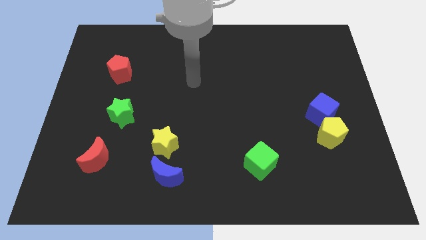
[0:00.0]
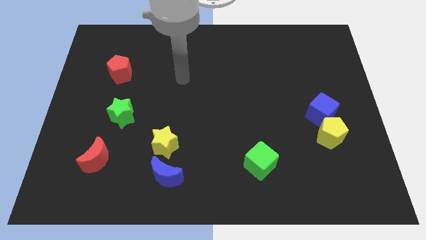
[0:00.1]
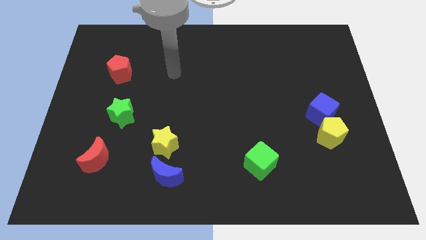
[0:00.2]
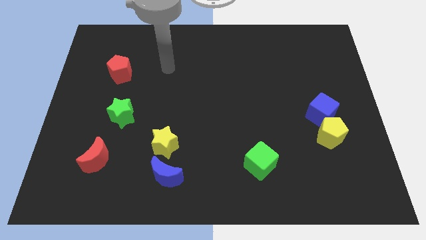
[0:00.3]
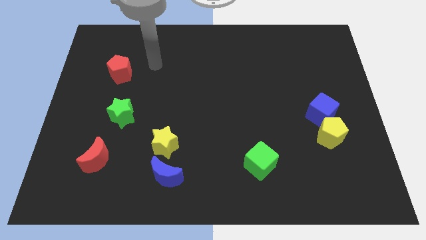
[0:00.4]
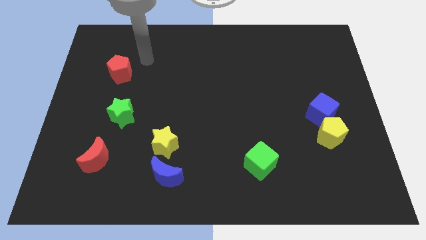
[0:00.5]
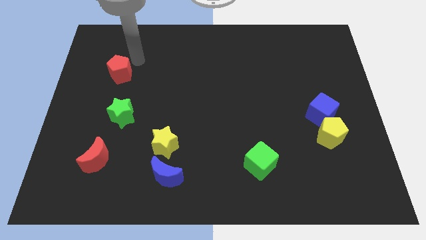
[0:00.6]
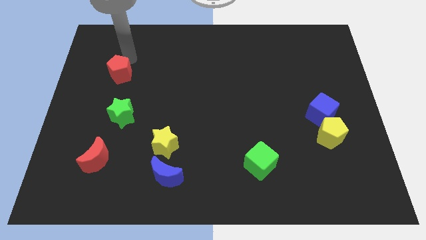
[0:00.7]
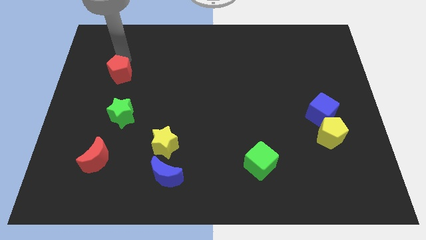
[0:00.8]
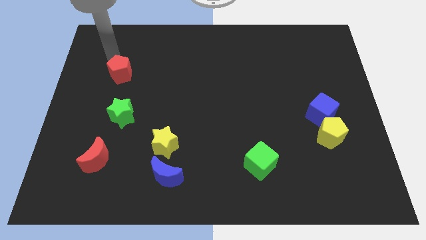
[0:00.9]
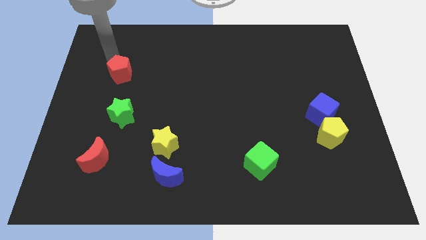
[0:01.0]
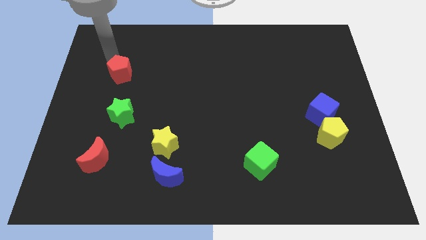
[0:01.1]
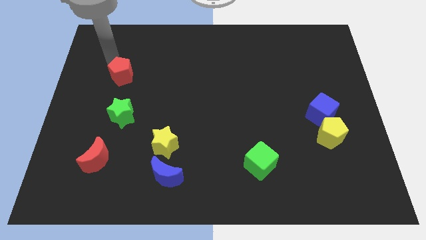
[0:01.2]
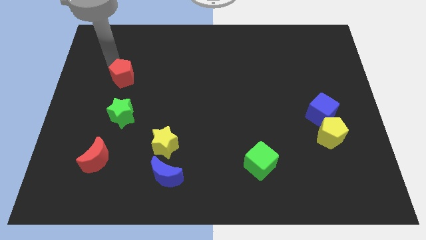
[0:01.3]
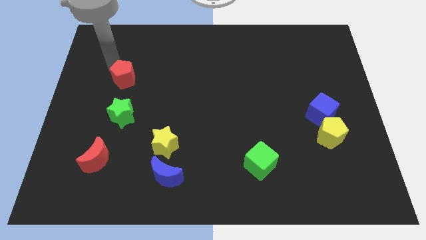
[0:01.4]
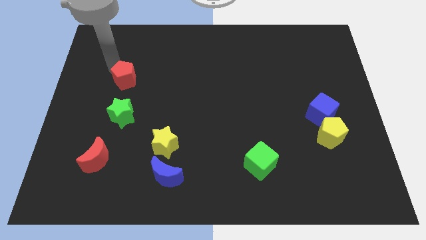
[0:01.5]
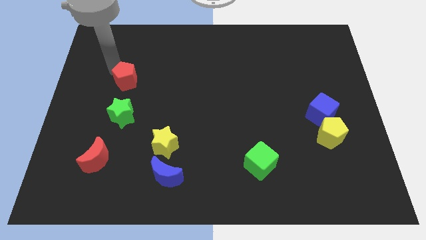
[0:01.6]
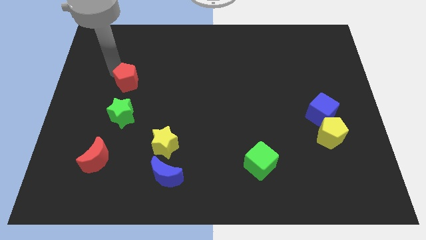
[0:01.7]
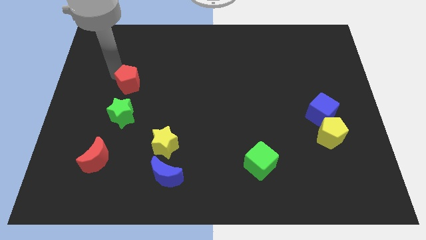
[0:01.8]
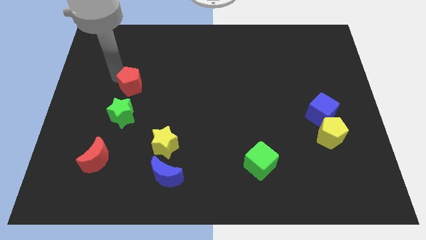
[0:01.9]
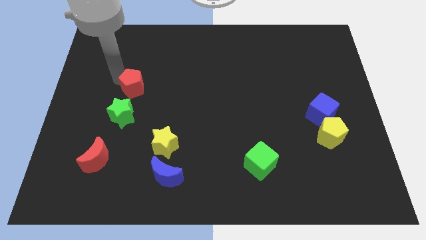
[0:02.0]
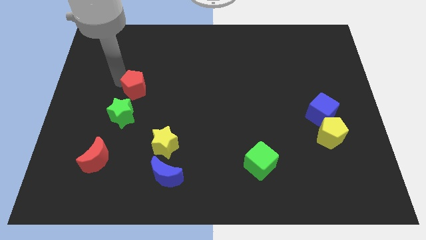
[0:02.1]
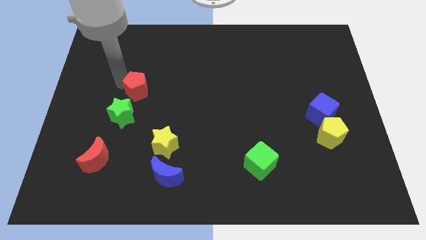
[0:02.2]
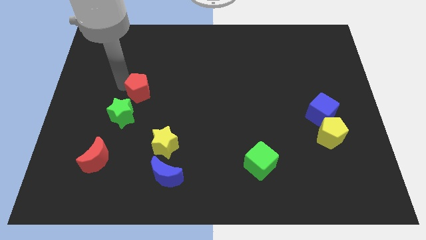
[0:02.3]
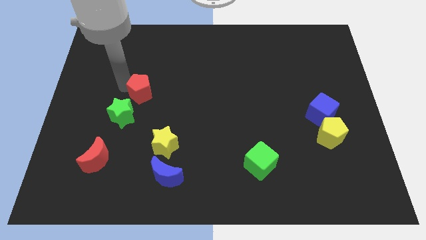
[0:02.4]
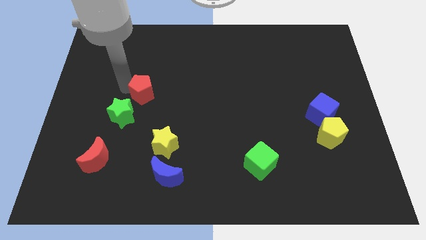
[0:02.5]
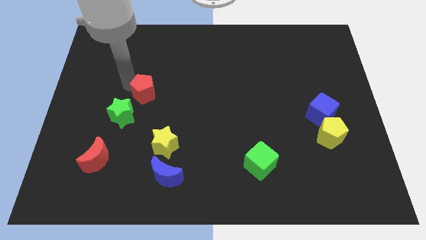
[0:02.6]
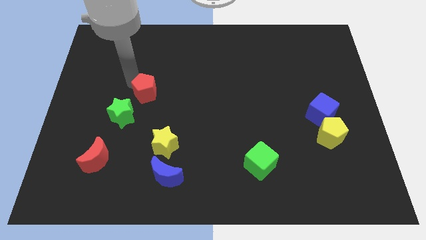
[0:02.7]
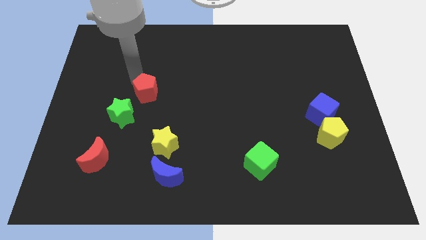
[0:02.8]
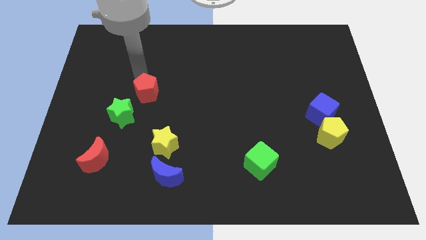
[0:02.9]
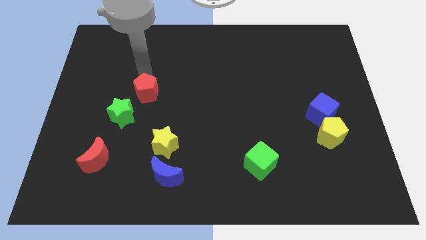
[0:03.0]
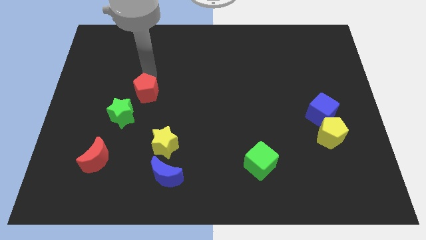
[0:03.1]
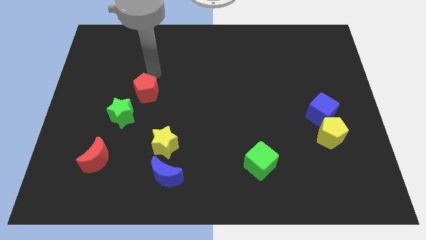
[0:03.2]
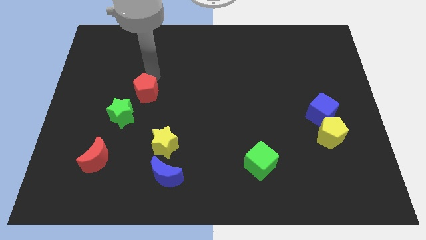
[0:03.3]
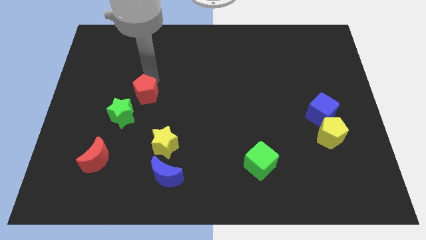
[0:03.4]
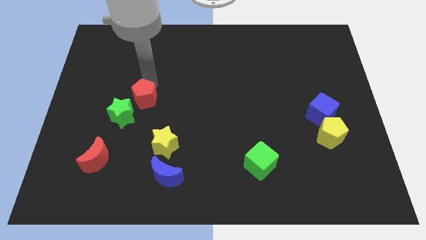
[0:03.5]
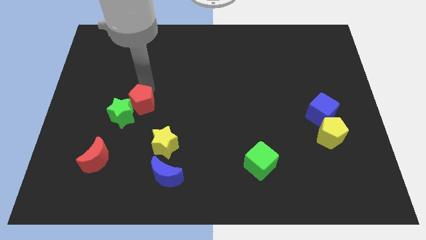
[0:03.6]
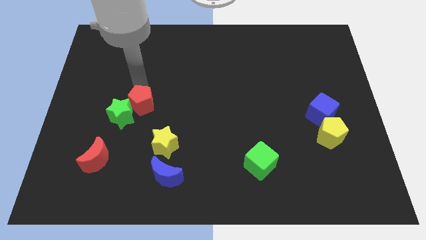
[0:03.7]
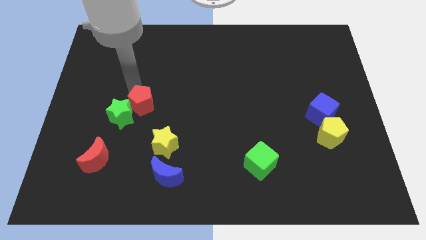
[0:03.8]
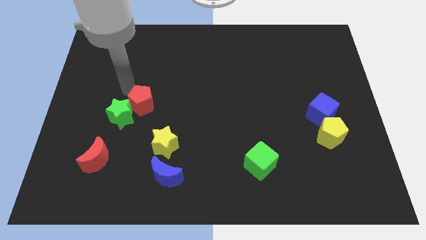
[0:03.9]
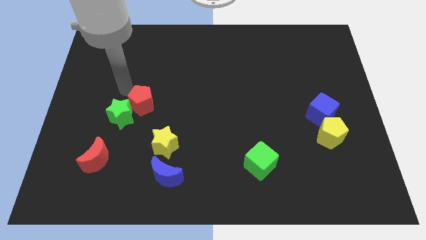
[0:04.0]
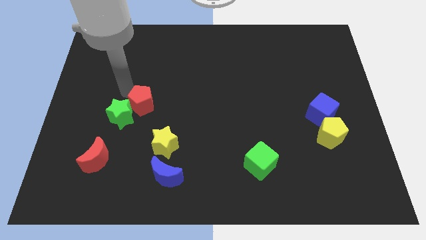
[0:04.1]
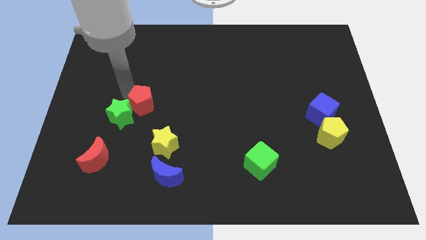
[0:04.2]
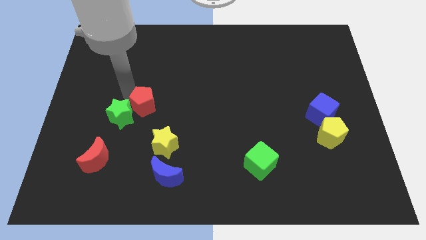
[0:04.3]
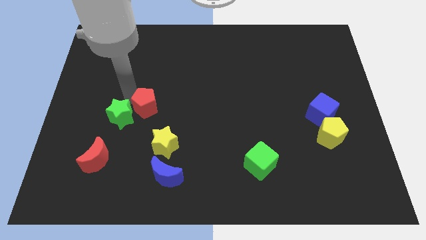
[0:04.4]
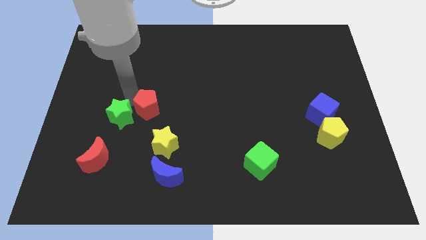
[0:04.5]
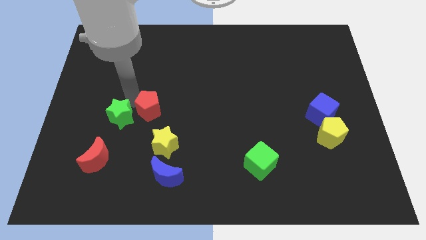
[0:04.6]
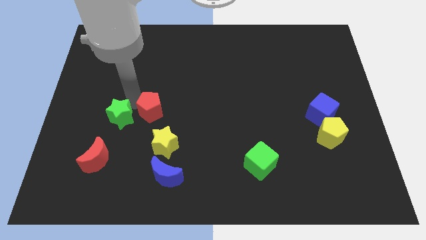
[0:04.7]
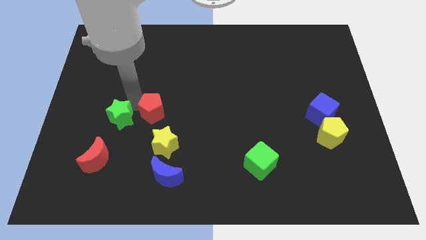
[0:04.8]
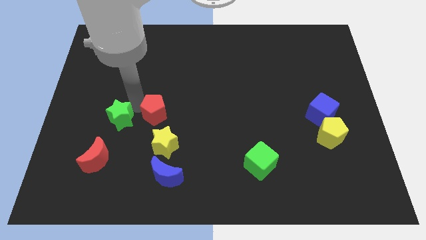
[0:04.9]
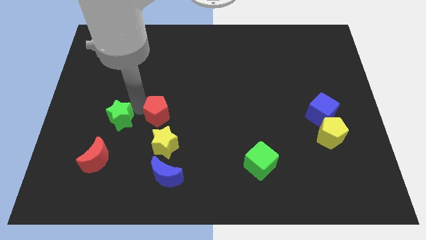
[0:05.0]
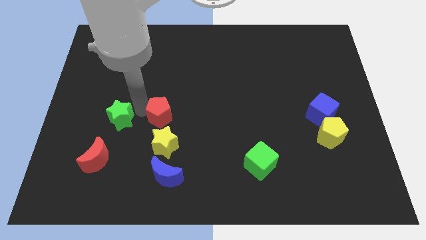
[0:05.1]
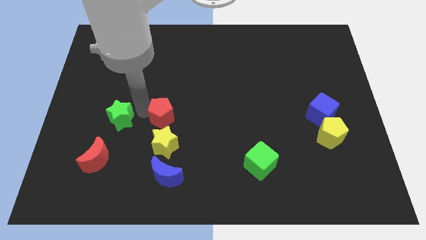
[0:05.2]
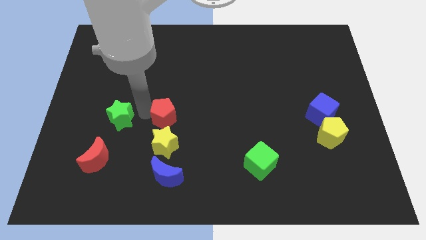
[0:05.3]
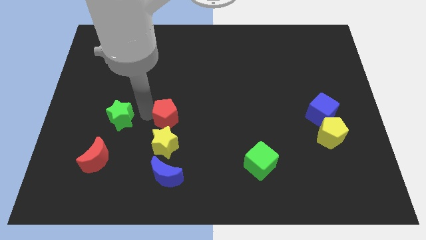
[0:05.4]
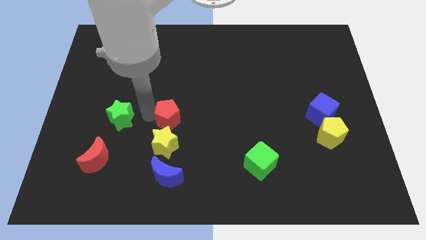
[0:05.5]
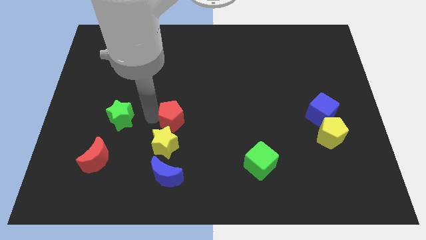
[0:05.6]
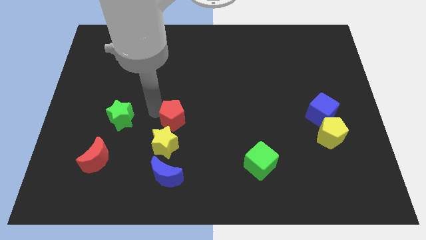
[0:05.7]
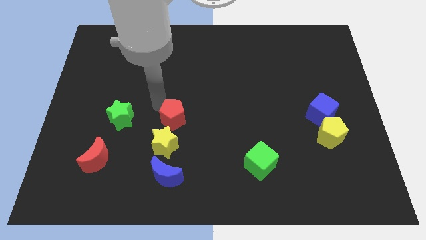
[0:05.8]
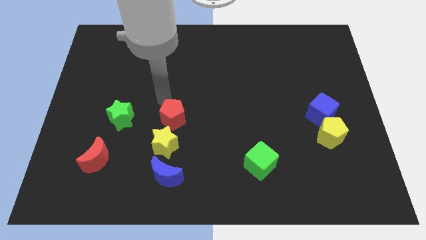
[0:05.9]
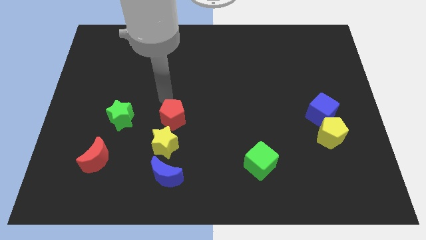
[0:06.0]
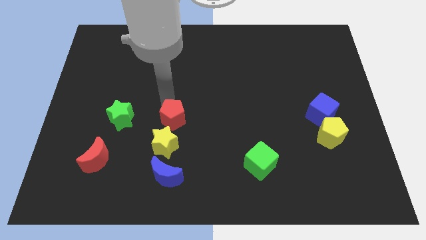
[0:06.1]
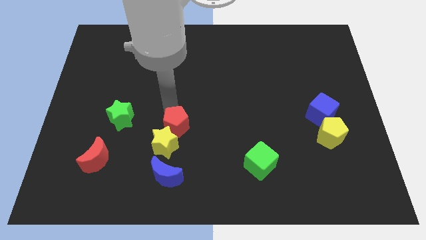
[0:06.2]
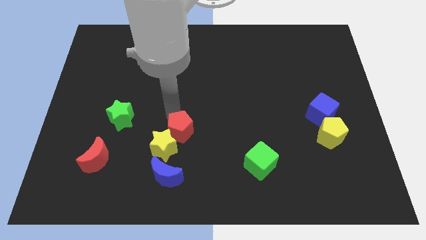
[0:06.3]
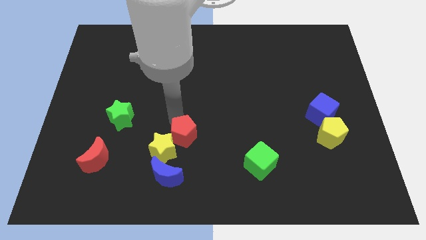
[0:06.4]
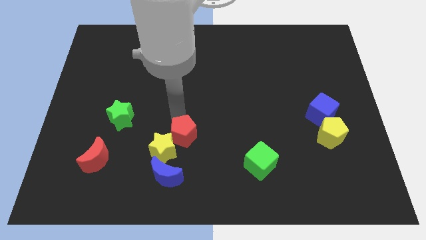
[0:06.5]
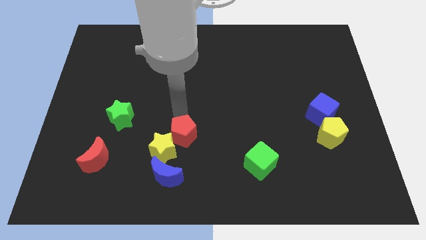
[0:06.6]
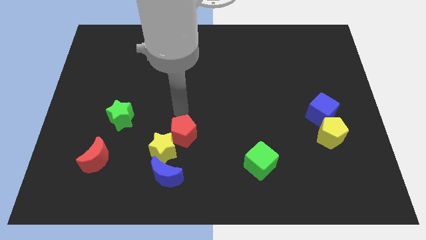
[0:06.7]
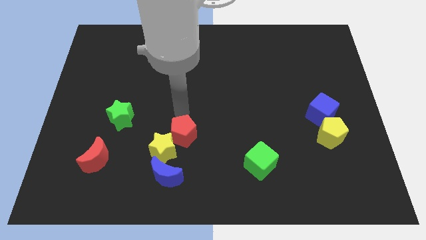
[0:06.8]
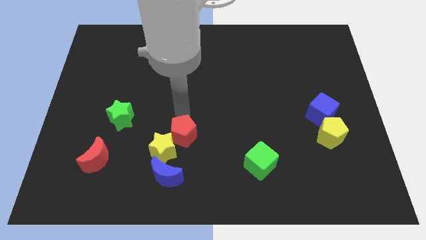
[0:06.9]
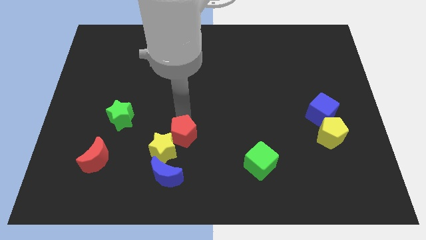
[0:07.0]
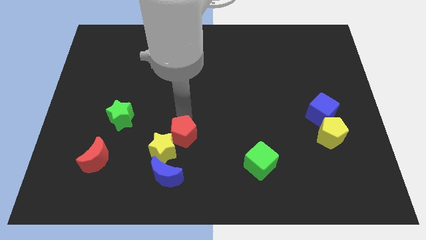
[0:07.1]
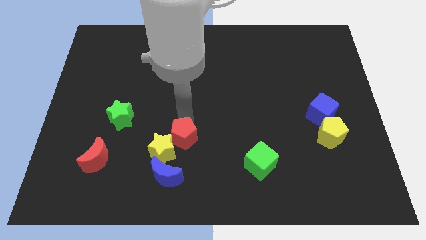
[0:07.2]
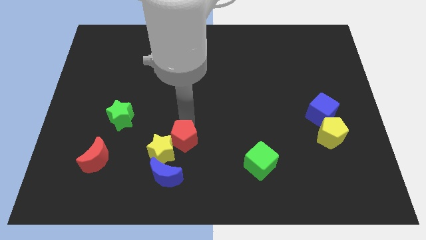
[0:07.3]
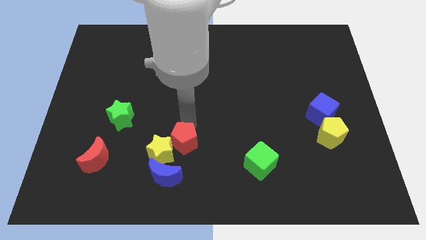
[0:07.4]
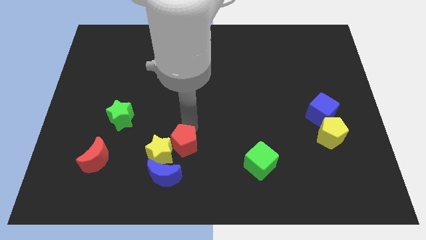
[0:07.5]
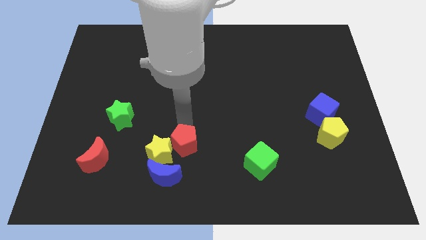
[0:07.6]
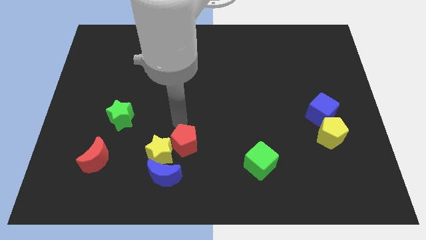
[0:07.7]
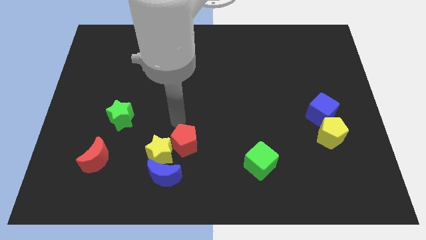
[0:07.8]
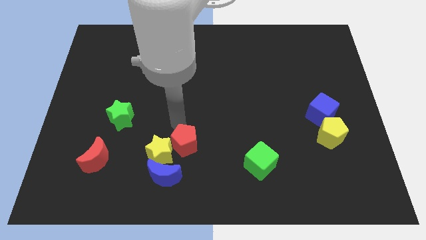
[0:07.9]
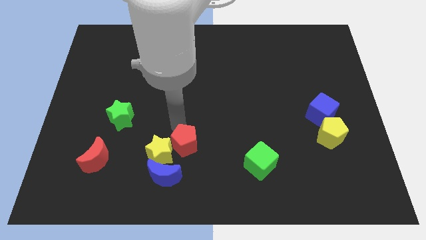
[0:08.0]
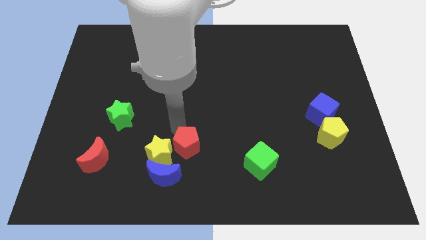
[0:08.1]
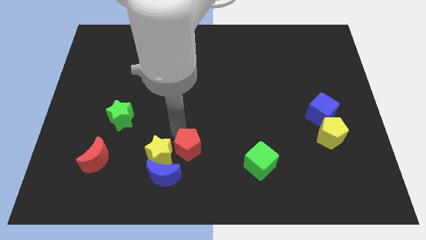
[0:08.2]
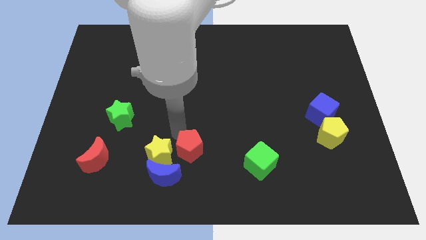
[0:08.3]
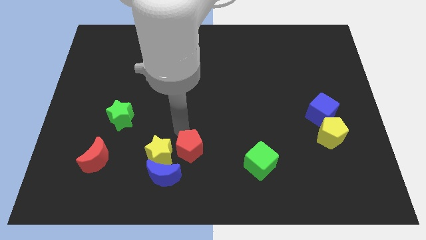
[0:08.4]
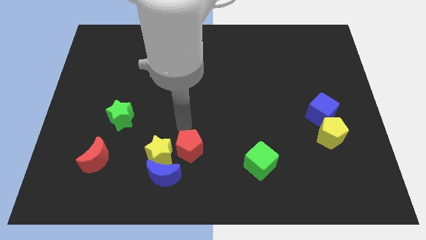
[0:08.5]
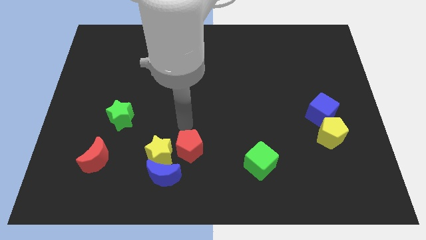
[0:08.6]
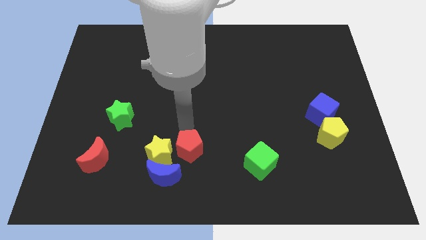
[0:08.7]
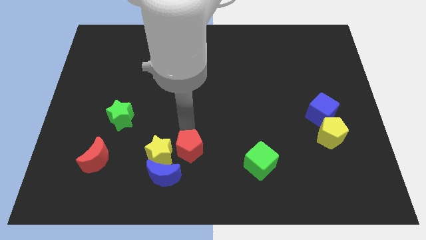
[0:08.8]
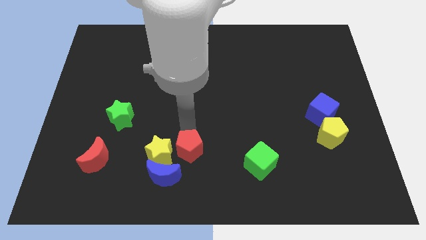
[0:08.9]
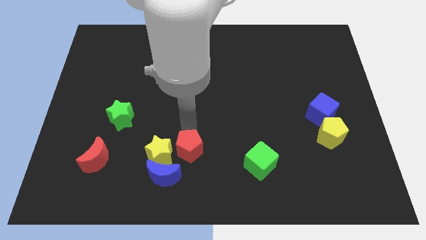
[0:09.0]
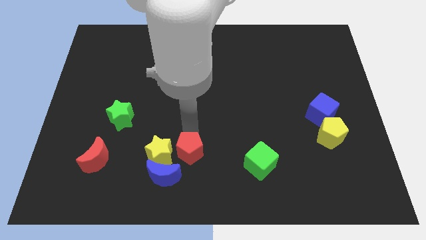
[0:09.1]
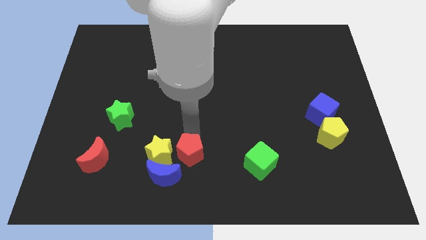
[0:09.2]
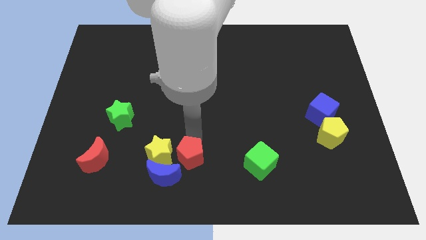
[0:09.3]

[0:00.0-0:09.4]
slide the red pentagon to the bottom
